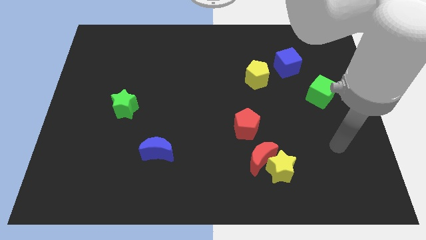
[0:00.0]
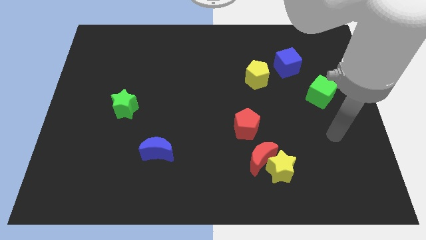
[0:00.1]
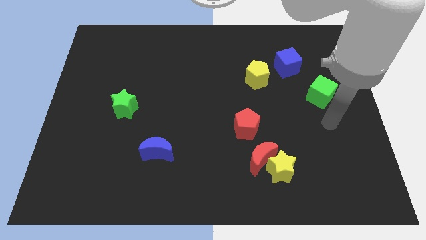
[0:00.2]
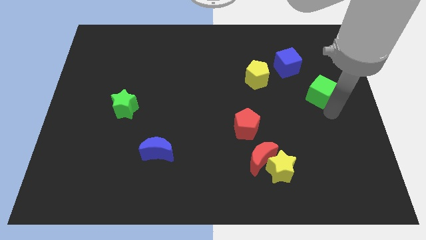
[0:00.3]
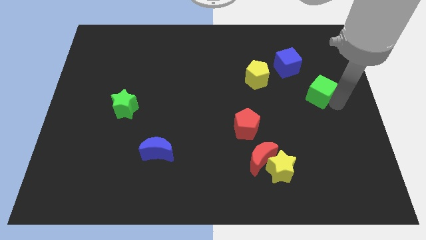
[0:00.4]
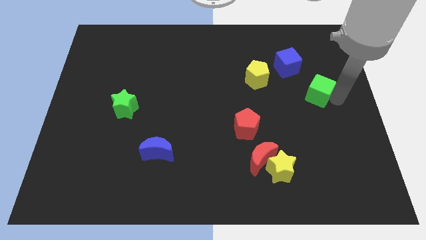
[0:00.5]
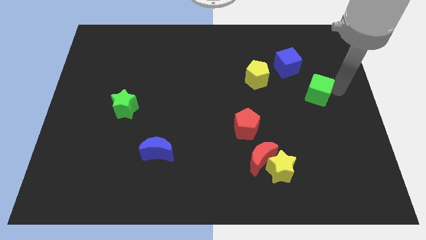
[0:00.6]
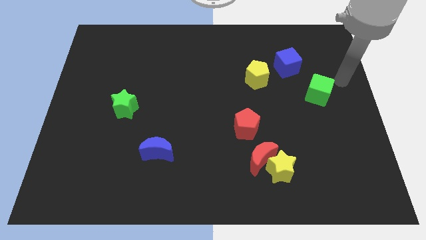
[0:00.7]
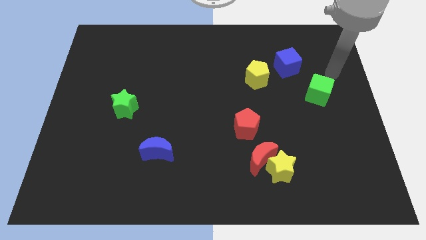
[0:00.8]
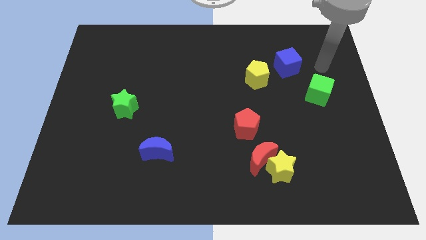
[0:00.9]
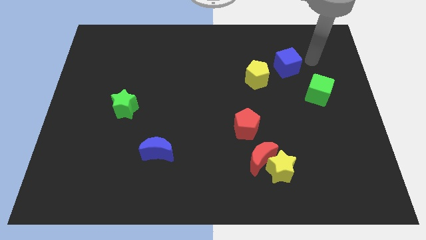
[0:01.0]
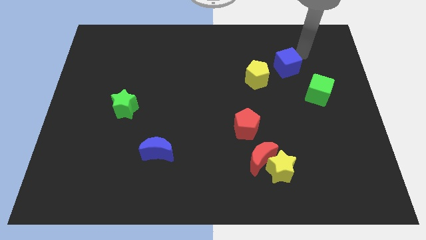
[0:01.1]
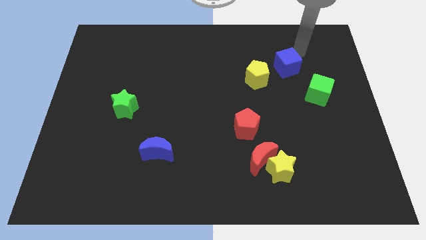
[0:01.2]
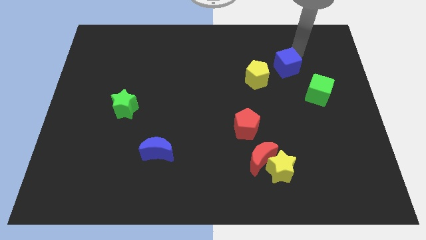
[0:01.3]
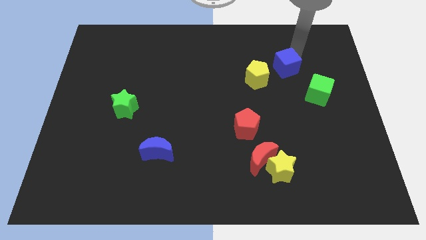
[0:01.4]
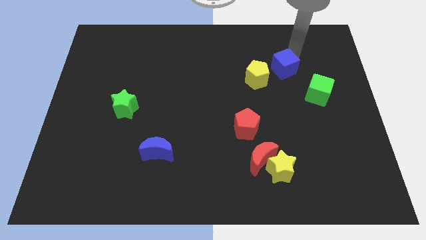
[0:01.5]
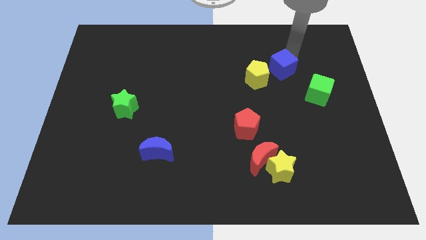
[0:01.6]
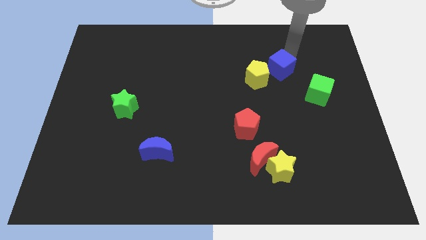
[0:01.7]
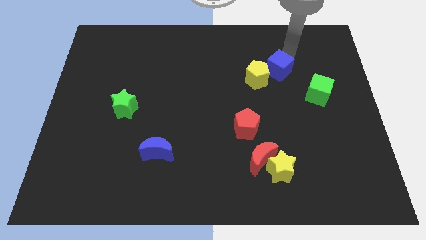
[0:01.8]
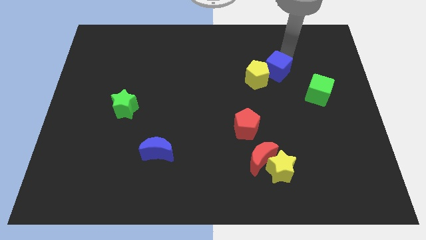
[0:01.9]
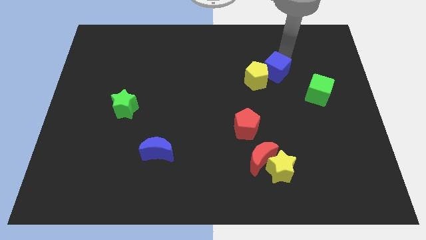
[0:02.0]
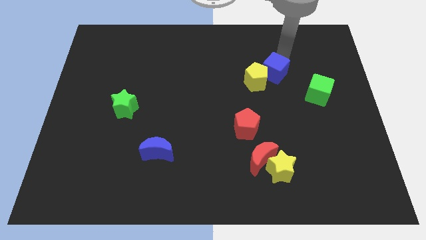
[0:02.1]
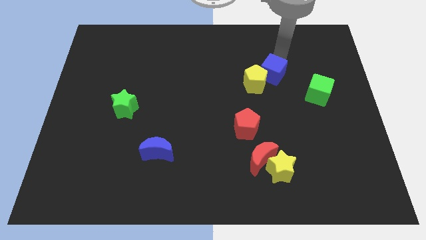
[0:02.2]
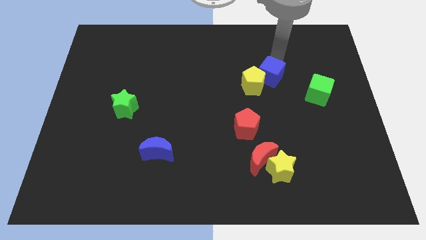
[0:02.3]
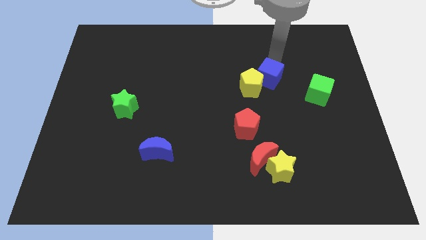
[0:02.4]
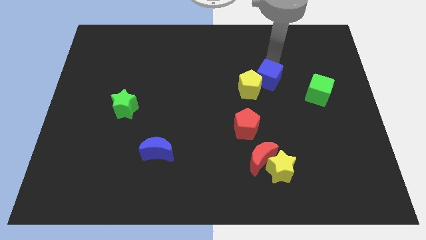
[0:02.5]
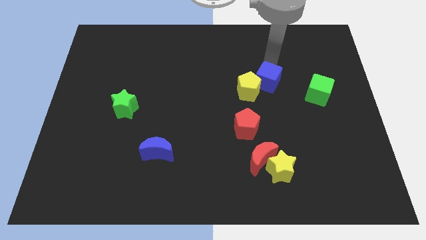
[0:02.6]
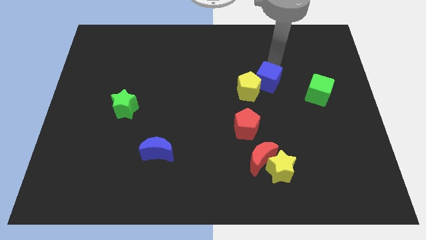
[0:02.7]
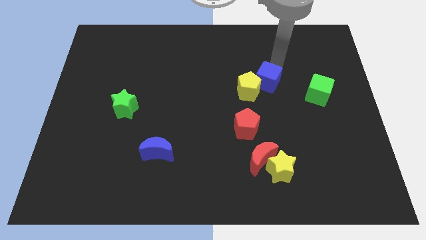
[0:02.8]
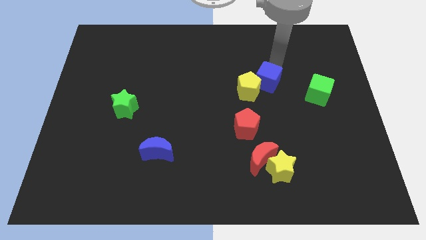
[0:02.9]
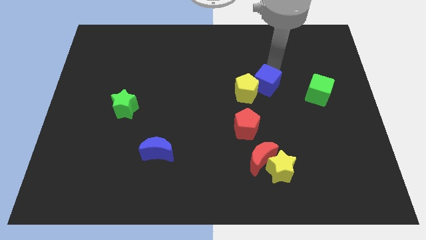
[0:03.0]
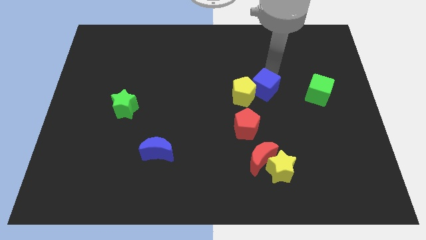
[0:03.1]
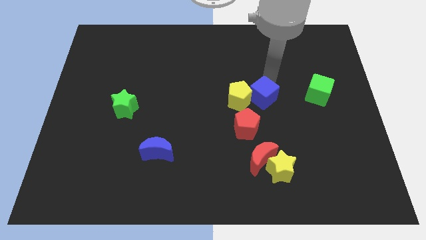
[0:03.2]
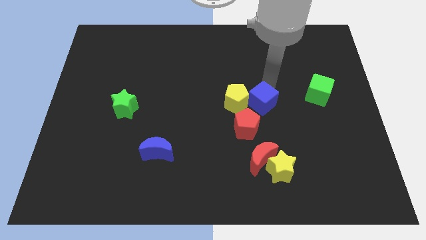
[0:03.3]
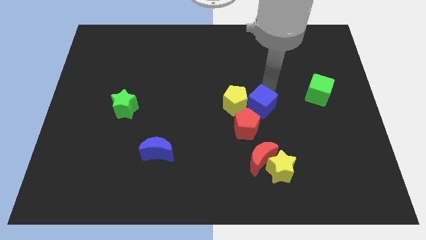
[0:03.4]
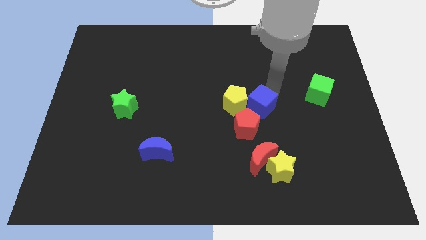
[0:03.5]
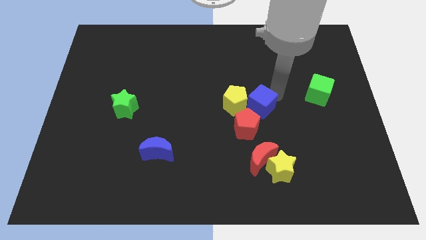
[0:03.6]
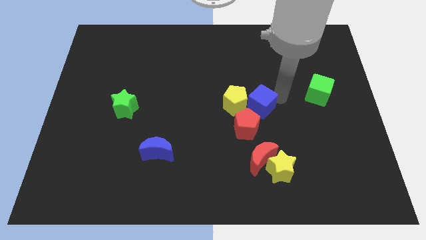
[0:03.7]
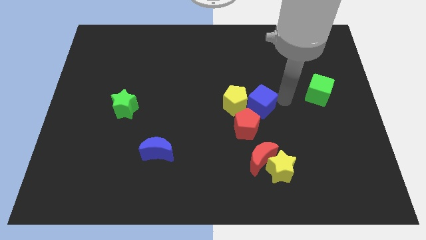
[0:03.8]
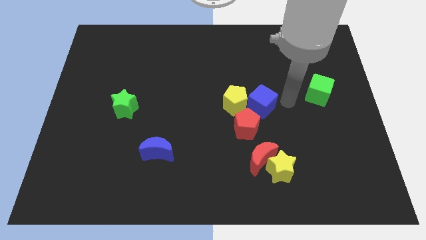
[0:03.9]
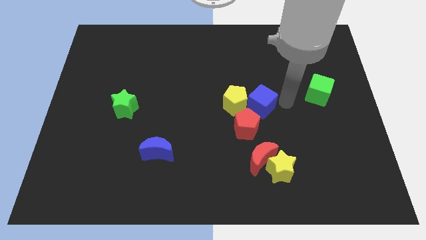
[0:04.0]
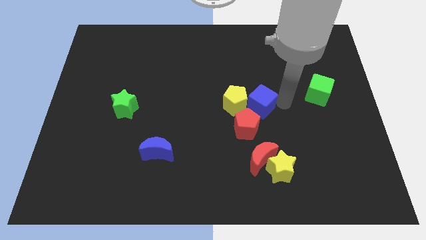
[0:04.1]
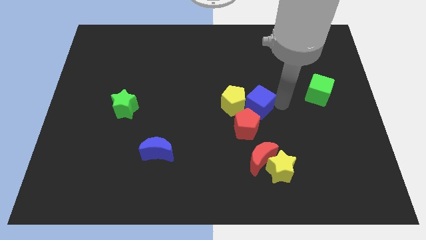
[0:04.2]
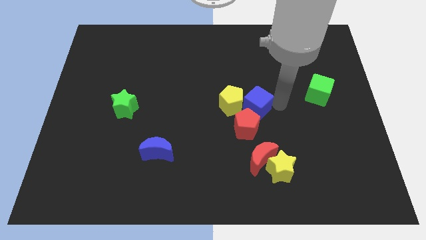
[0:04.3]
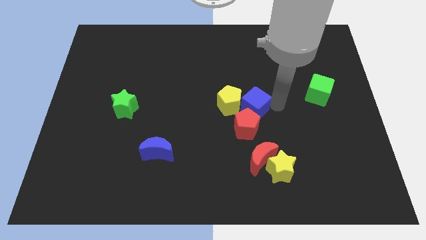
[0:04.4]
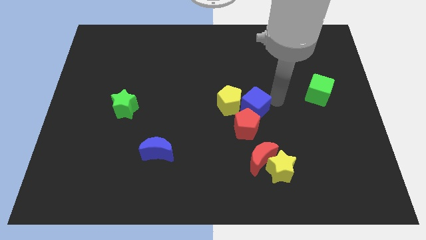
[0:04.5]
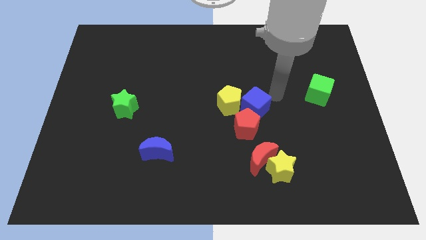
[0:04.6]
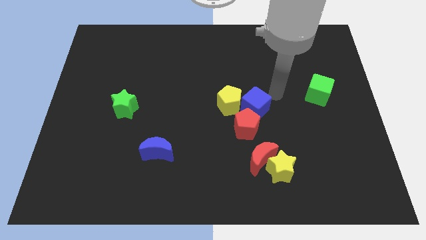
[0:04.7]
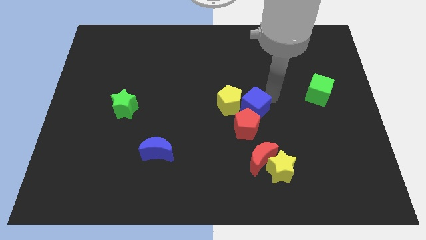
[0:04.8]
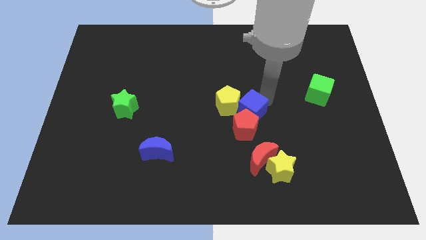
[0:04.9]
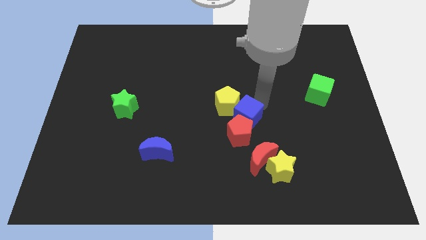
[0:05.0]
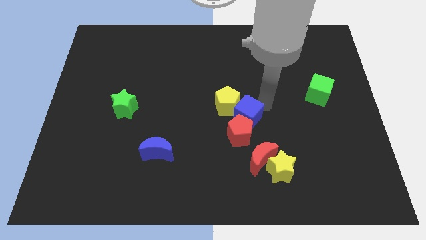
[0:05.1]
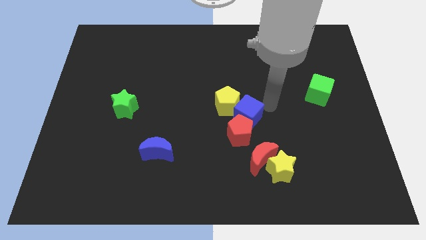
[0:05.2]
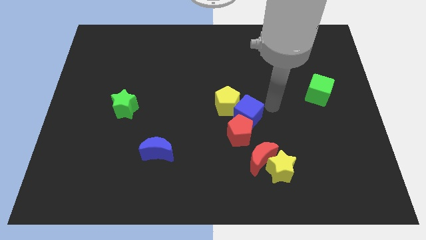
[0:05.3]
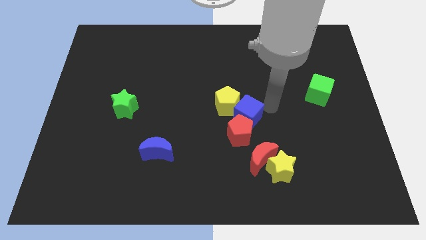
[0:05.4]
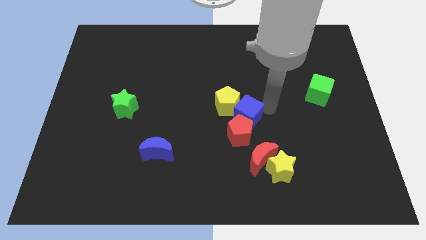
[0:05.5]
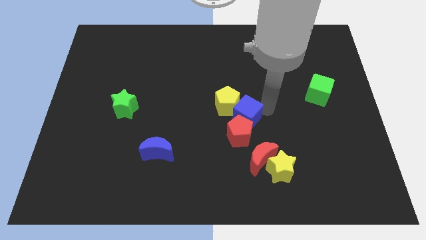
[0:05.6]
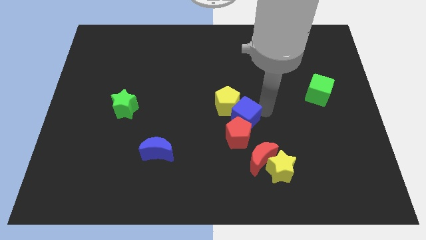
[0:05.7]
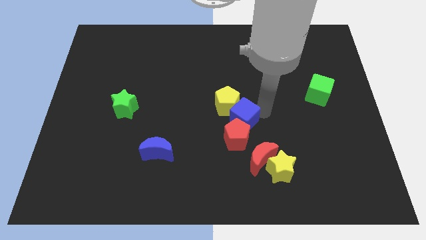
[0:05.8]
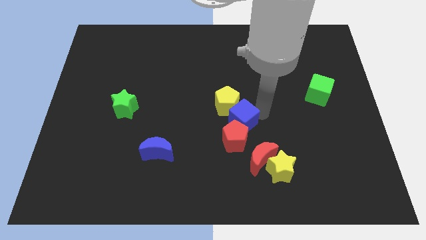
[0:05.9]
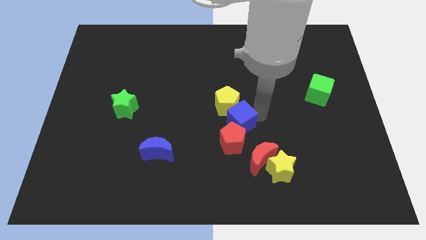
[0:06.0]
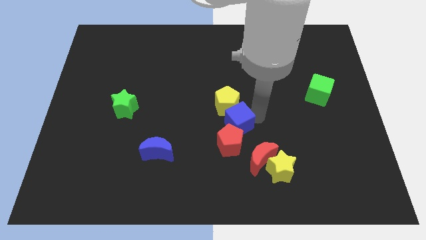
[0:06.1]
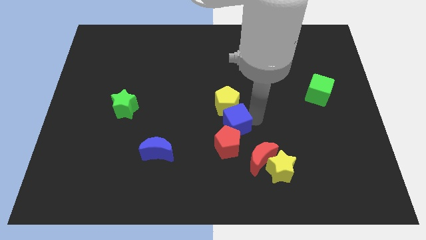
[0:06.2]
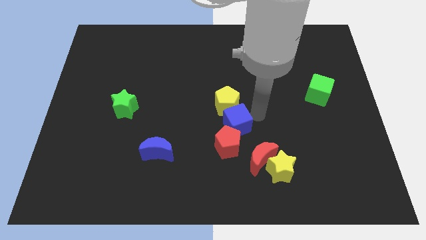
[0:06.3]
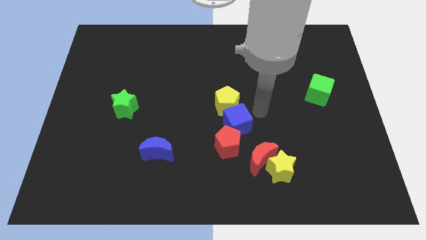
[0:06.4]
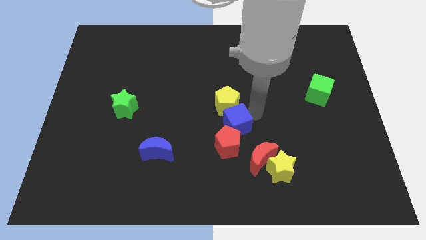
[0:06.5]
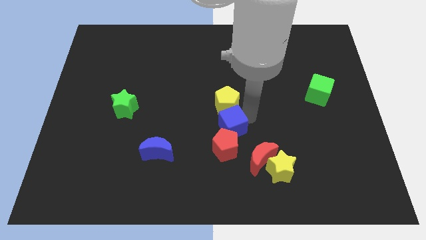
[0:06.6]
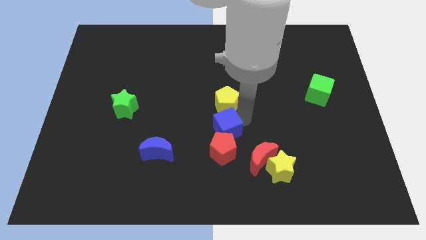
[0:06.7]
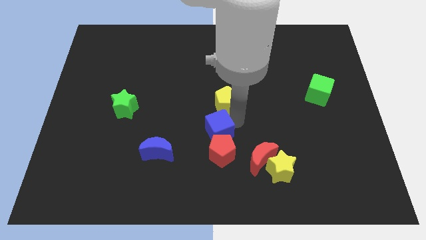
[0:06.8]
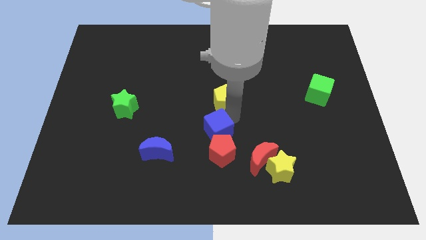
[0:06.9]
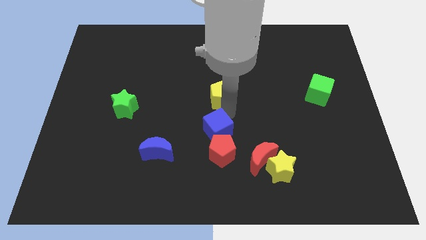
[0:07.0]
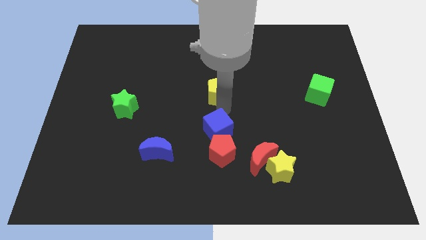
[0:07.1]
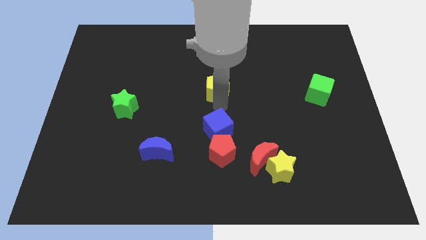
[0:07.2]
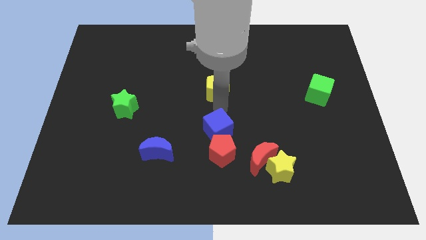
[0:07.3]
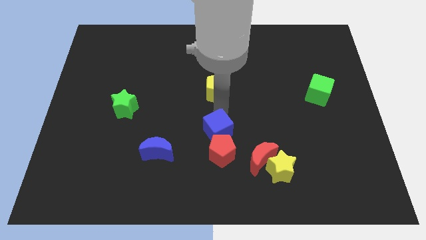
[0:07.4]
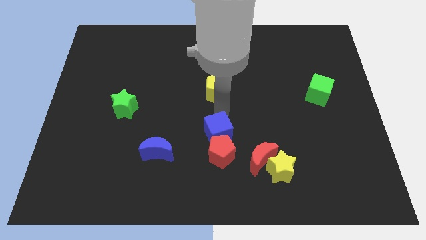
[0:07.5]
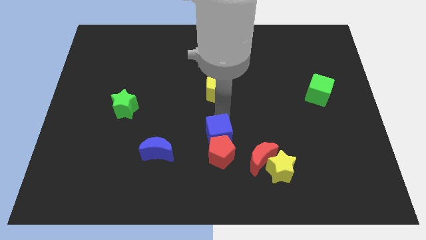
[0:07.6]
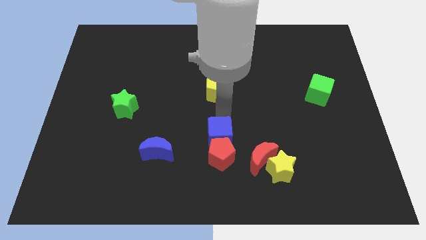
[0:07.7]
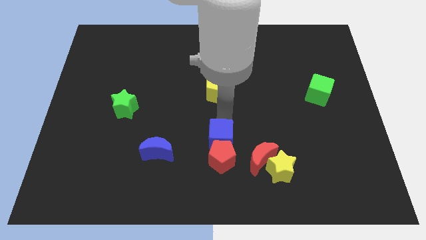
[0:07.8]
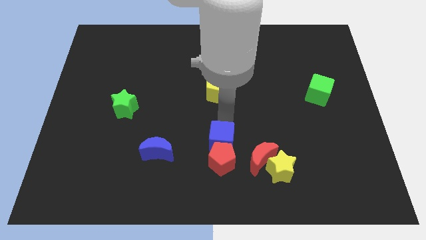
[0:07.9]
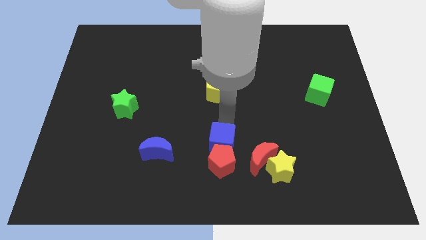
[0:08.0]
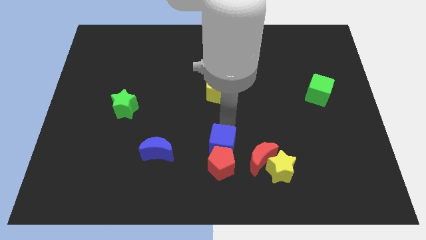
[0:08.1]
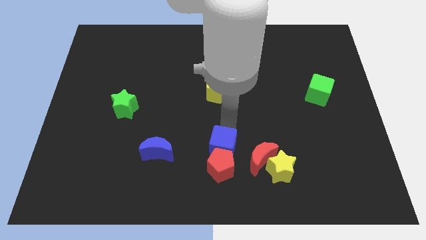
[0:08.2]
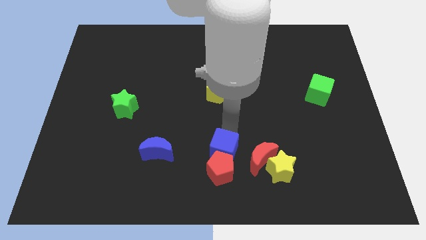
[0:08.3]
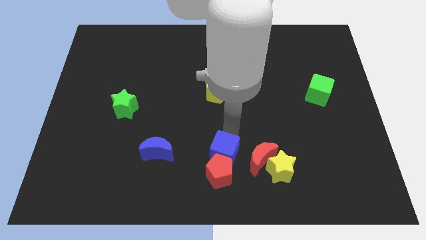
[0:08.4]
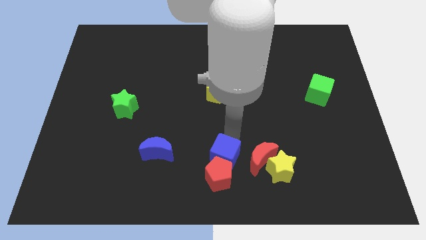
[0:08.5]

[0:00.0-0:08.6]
push the blue cube to the bottom side
